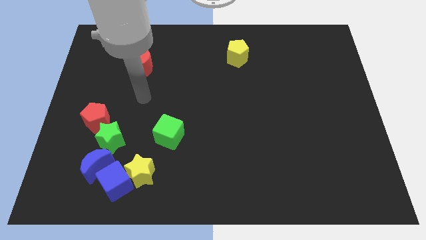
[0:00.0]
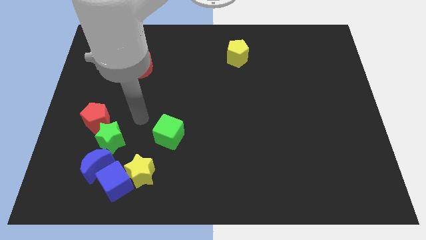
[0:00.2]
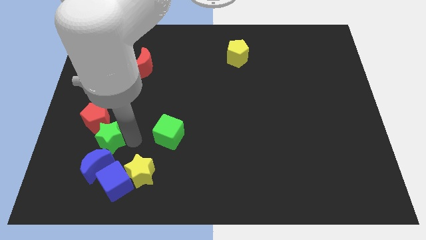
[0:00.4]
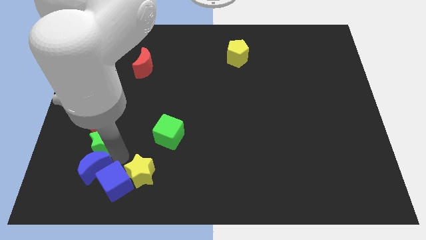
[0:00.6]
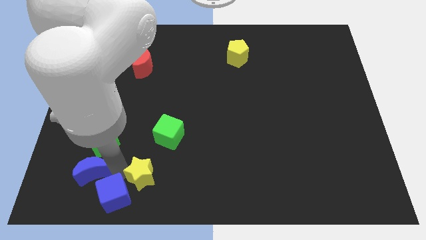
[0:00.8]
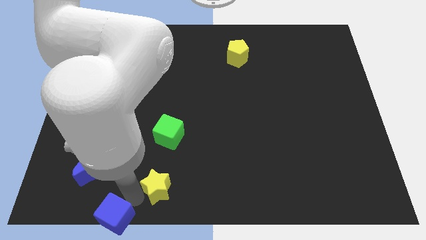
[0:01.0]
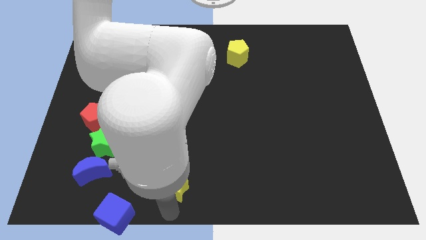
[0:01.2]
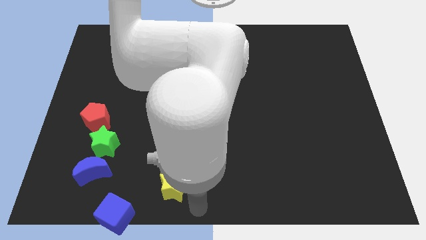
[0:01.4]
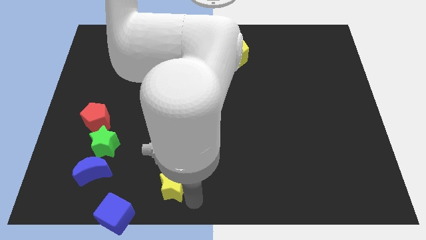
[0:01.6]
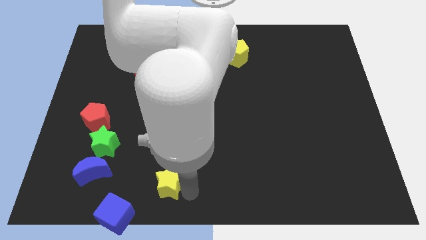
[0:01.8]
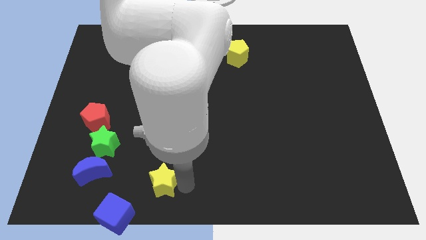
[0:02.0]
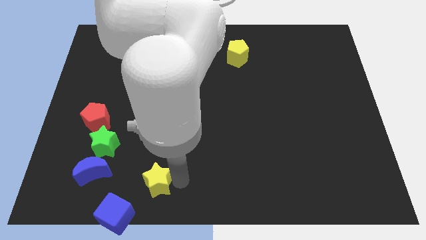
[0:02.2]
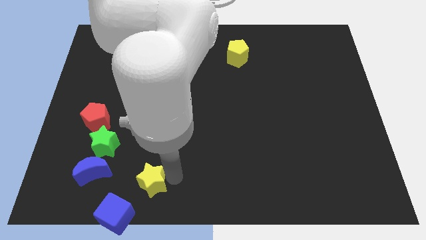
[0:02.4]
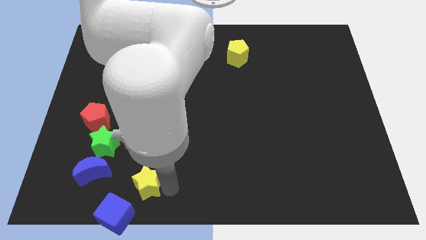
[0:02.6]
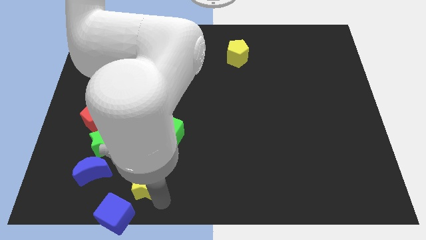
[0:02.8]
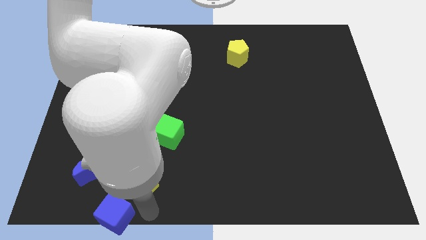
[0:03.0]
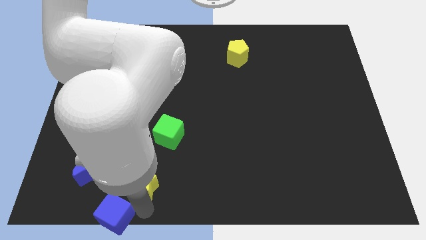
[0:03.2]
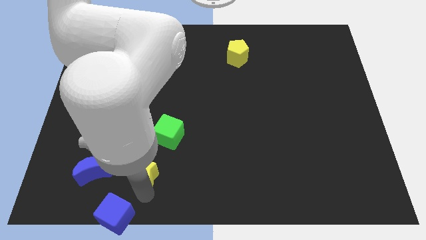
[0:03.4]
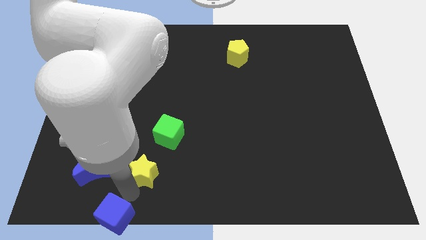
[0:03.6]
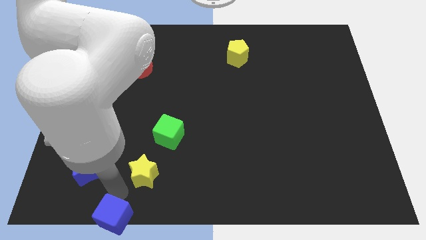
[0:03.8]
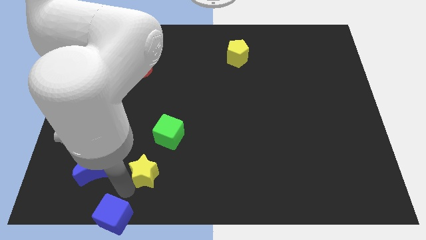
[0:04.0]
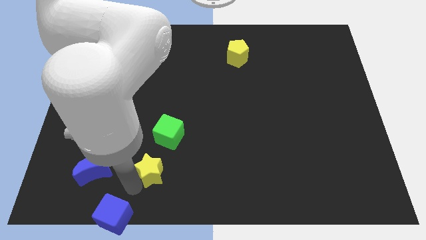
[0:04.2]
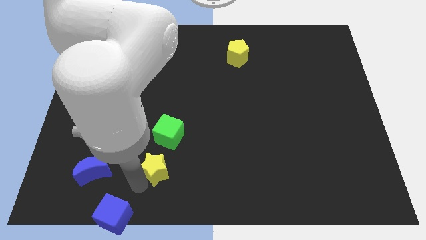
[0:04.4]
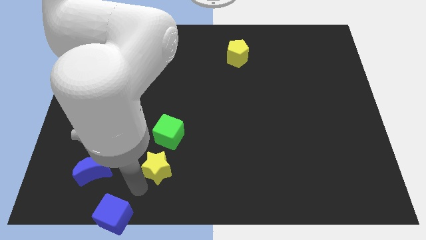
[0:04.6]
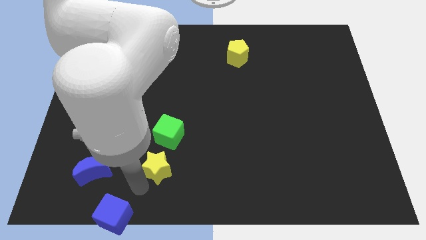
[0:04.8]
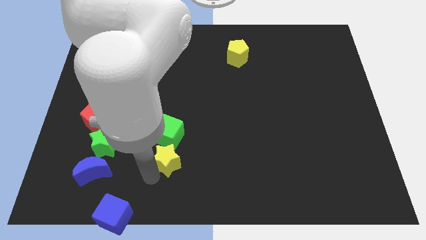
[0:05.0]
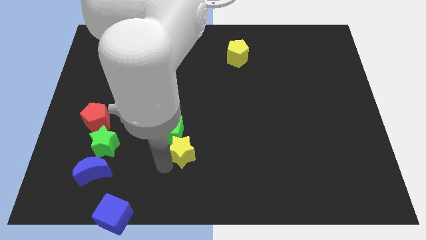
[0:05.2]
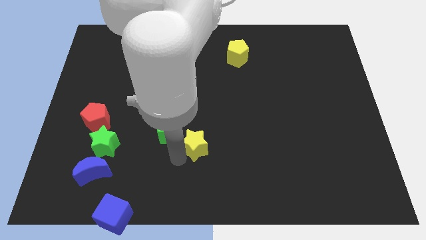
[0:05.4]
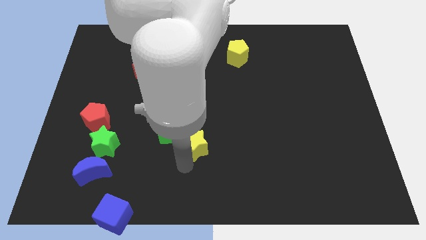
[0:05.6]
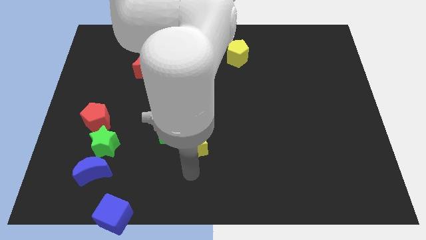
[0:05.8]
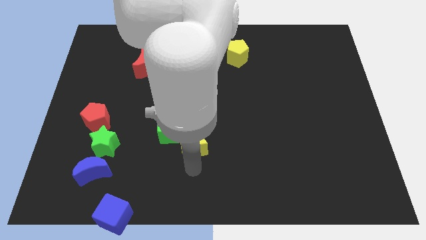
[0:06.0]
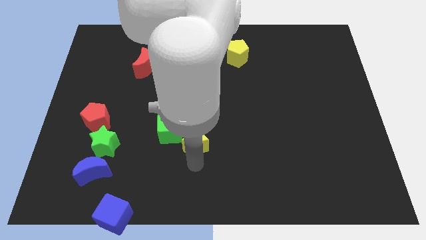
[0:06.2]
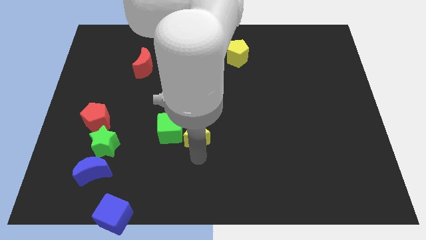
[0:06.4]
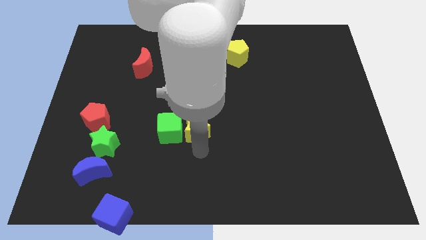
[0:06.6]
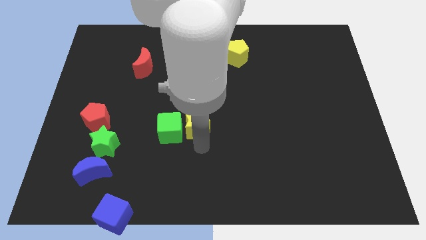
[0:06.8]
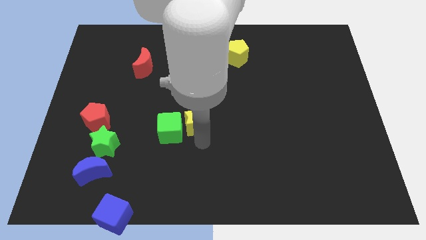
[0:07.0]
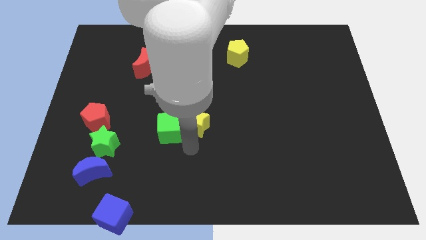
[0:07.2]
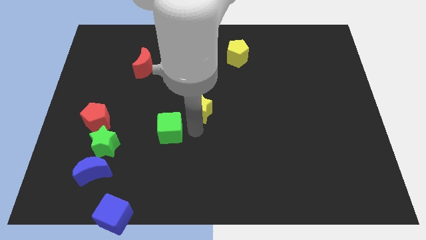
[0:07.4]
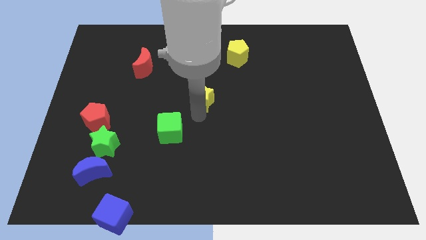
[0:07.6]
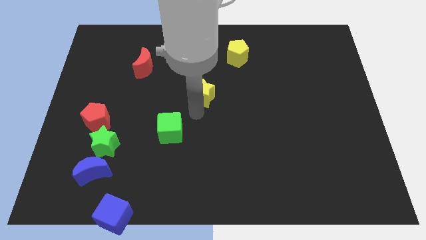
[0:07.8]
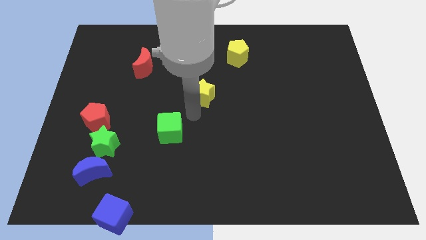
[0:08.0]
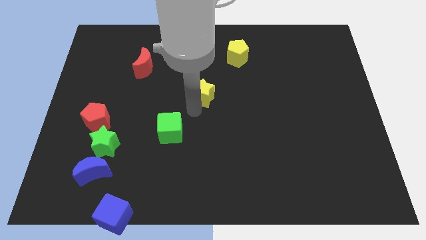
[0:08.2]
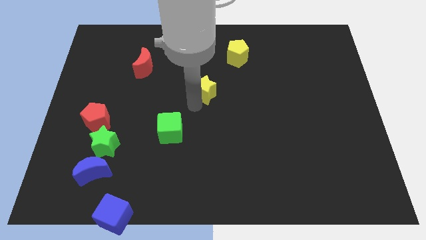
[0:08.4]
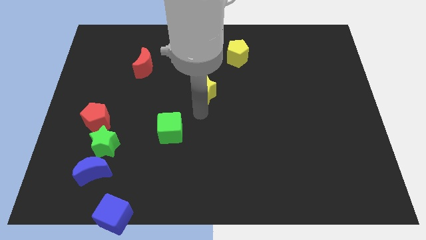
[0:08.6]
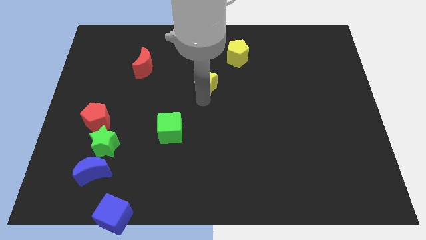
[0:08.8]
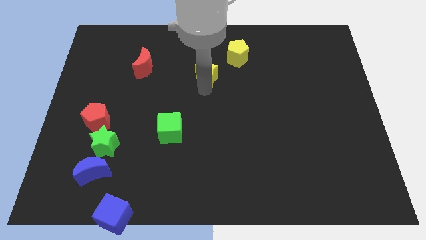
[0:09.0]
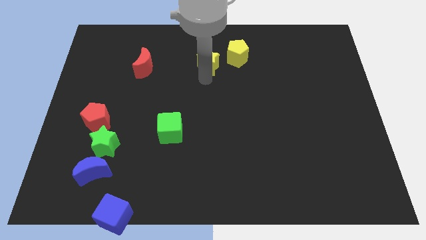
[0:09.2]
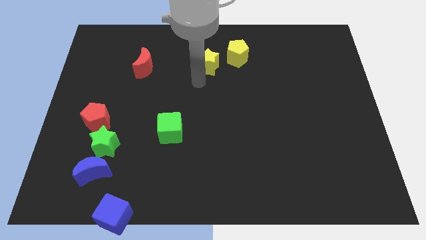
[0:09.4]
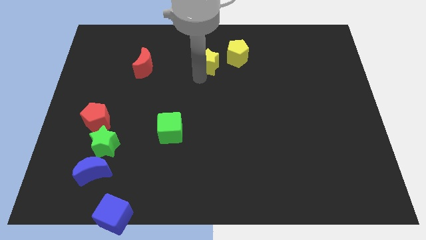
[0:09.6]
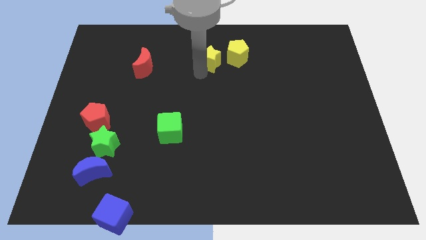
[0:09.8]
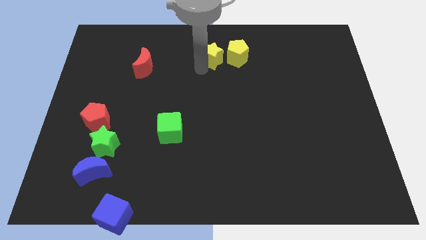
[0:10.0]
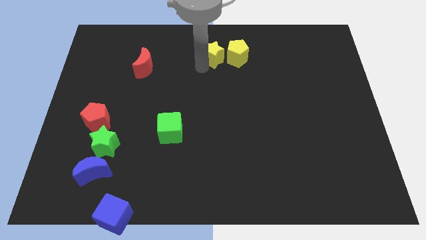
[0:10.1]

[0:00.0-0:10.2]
move the yellow star to the towards your base

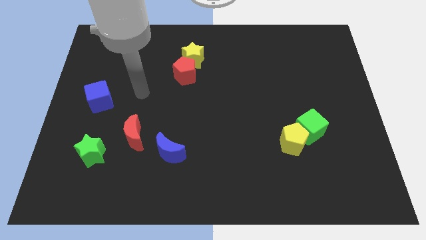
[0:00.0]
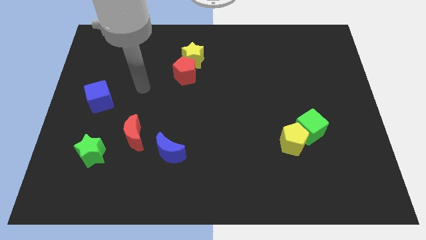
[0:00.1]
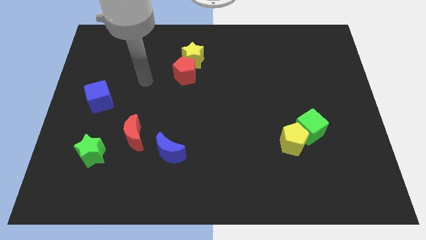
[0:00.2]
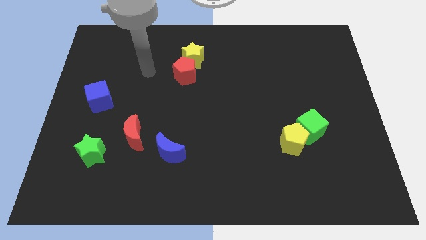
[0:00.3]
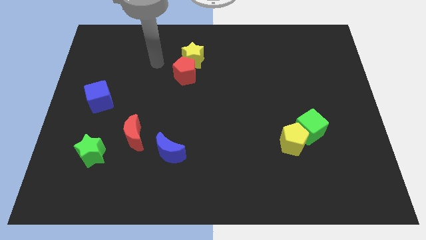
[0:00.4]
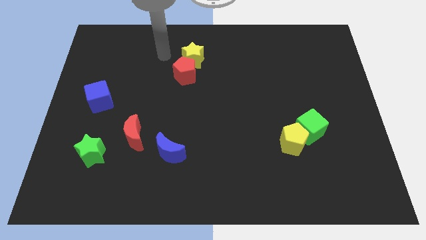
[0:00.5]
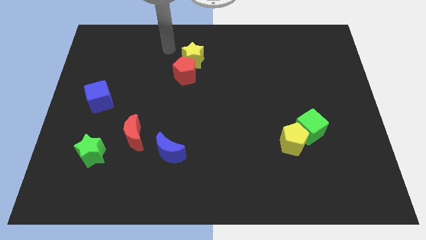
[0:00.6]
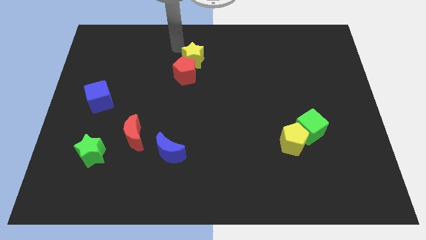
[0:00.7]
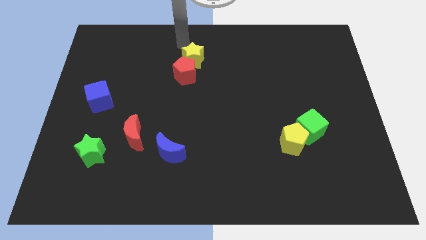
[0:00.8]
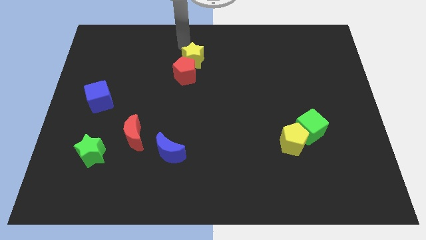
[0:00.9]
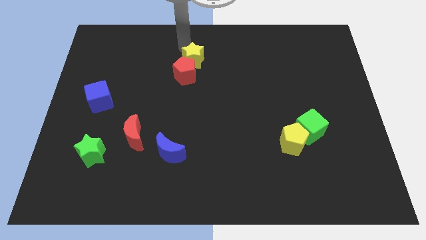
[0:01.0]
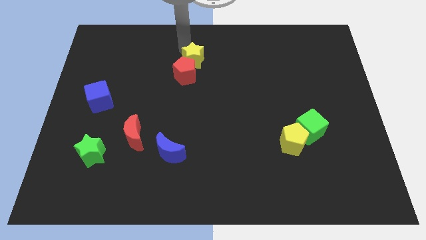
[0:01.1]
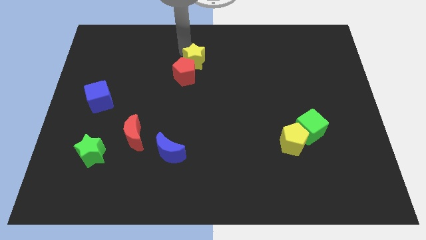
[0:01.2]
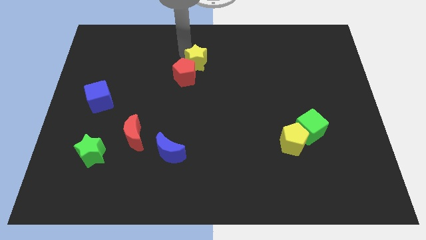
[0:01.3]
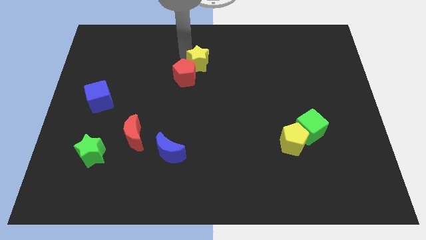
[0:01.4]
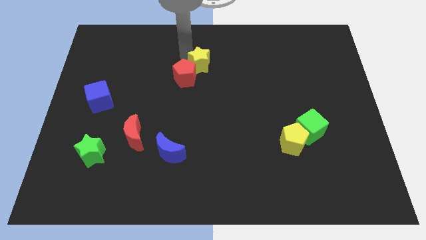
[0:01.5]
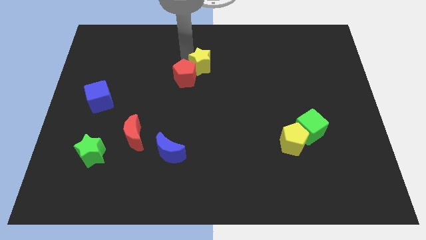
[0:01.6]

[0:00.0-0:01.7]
put the yellow star to the center of the board
